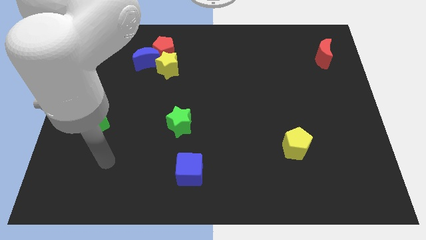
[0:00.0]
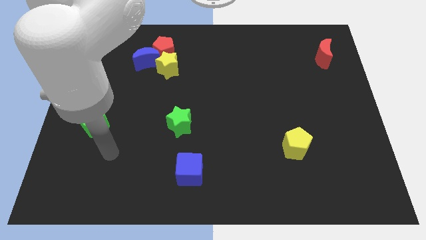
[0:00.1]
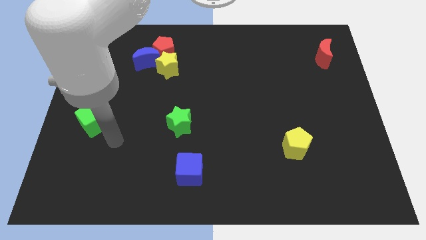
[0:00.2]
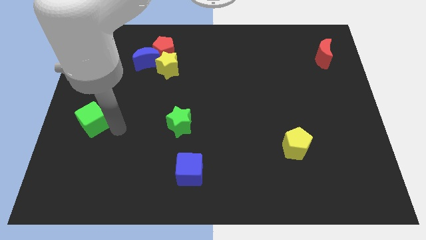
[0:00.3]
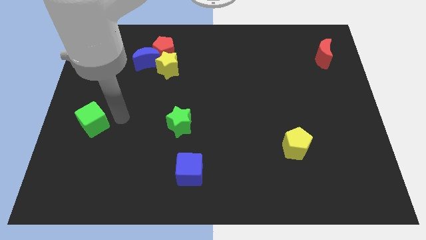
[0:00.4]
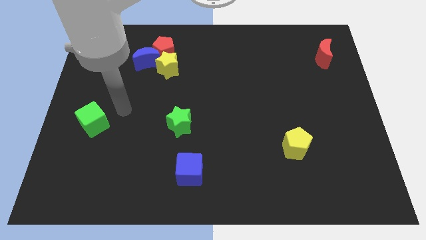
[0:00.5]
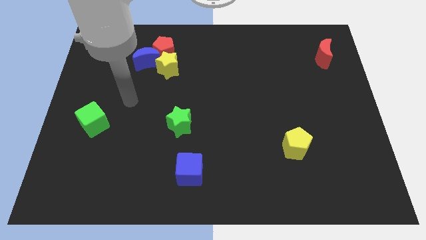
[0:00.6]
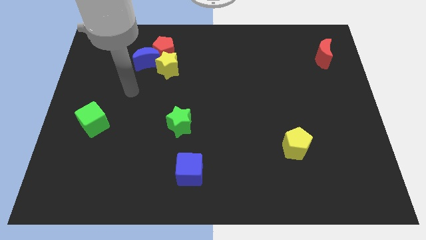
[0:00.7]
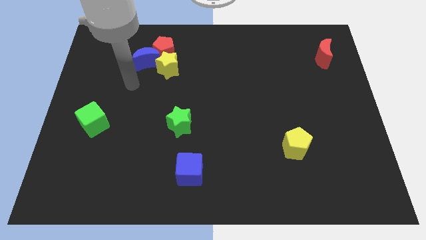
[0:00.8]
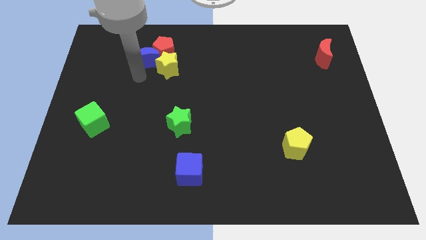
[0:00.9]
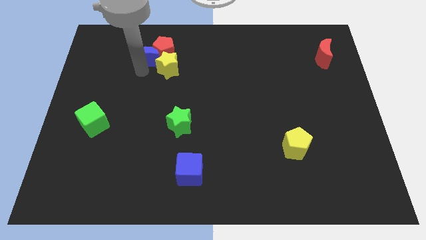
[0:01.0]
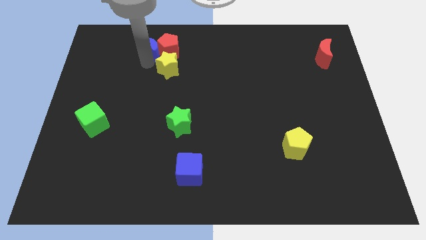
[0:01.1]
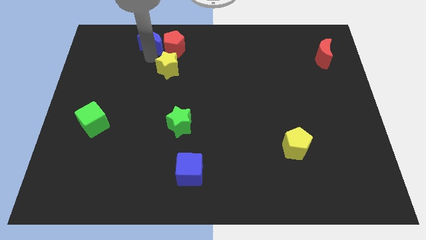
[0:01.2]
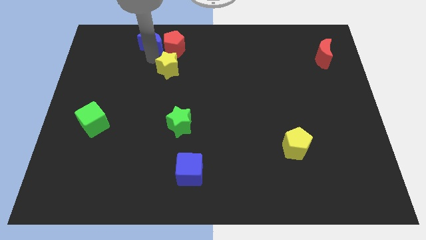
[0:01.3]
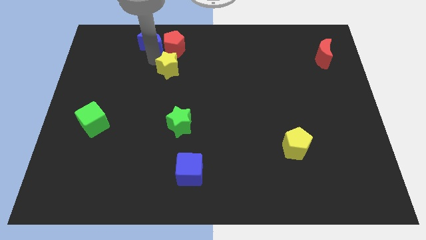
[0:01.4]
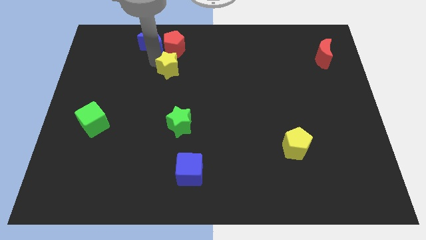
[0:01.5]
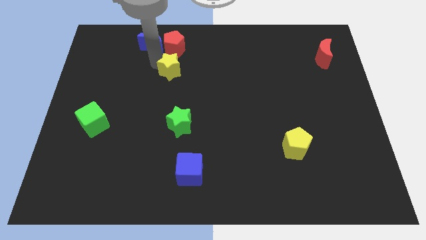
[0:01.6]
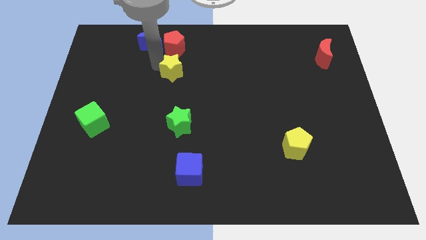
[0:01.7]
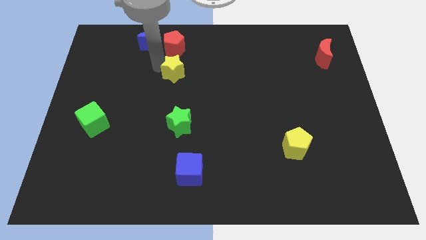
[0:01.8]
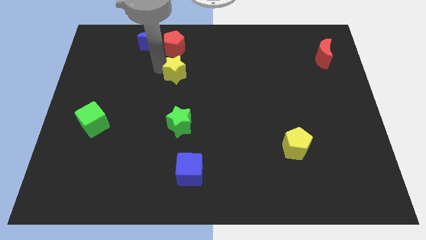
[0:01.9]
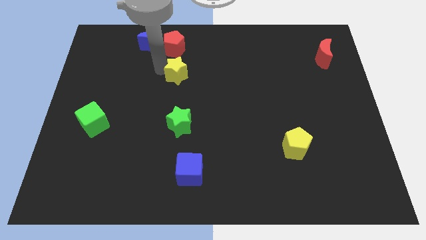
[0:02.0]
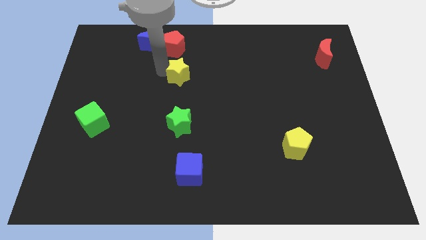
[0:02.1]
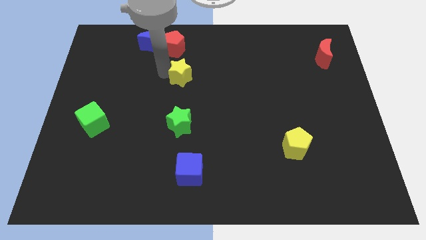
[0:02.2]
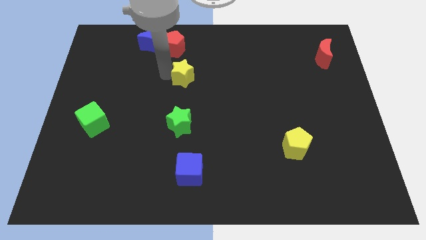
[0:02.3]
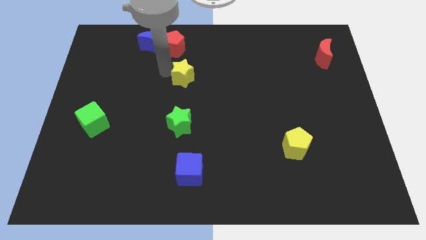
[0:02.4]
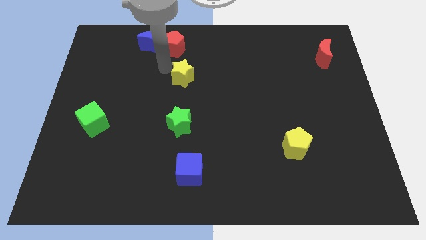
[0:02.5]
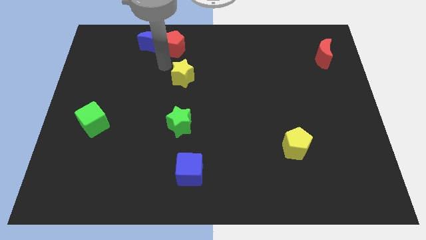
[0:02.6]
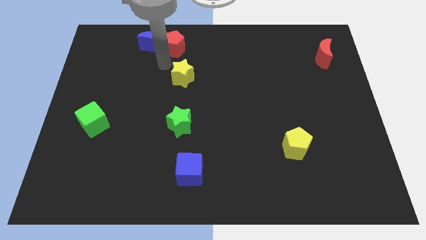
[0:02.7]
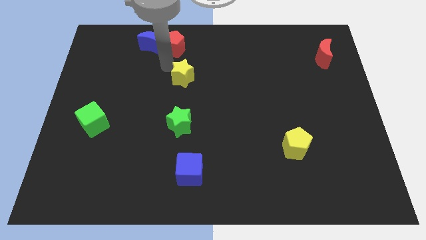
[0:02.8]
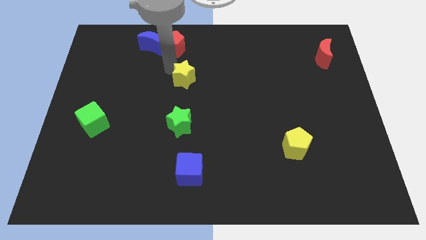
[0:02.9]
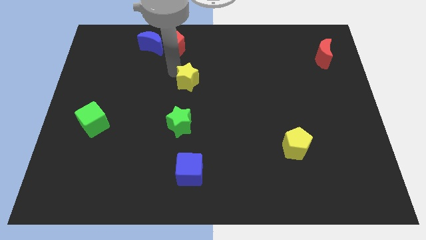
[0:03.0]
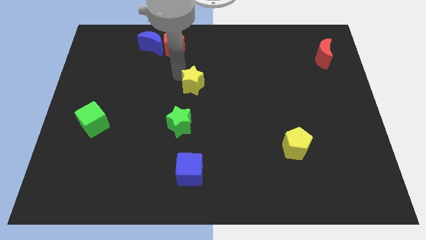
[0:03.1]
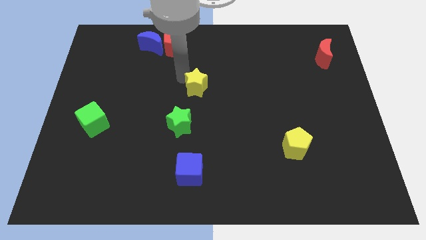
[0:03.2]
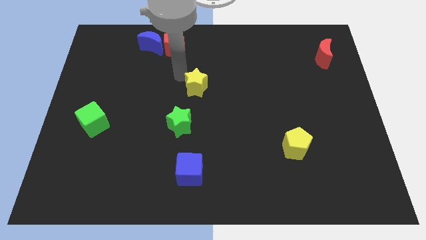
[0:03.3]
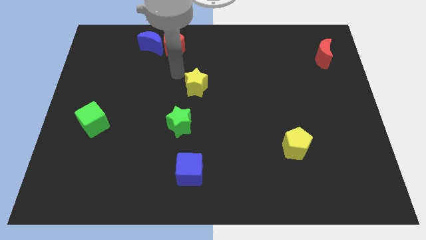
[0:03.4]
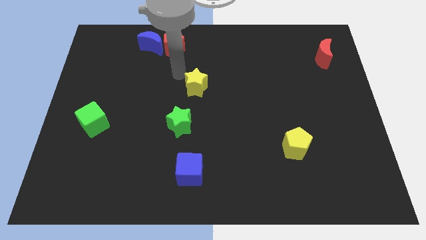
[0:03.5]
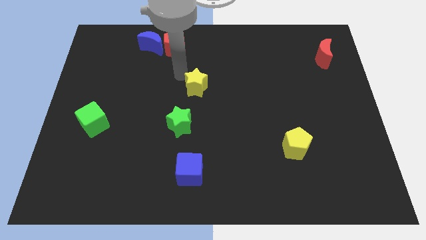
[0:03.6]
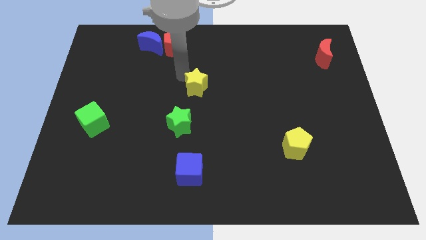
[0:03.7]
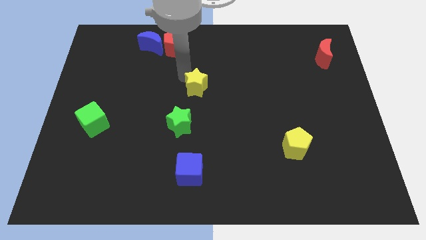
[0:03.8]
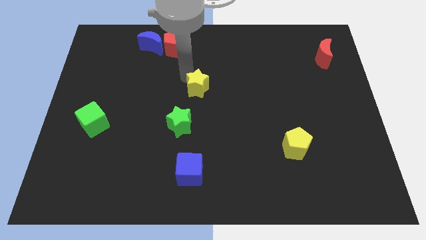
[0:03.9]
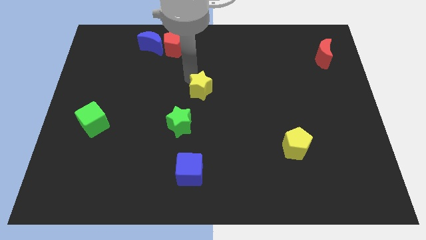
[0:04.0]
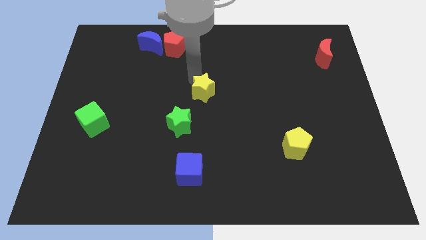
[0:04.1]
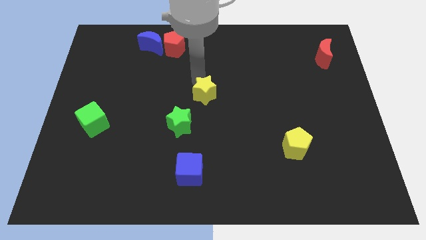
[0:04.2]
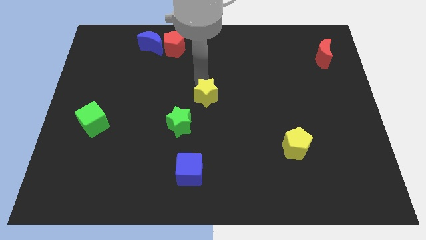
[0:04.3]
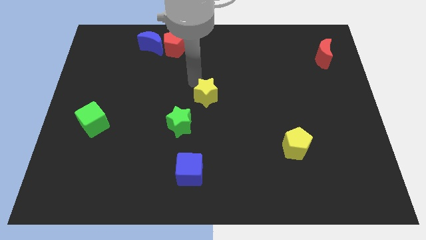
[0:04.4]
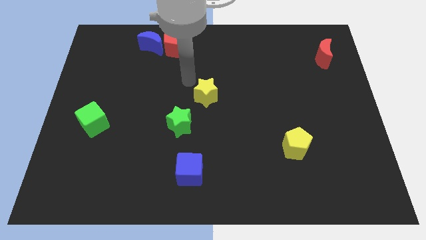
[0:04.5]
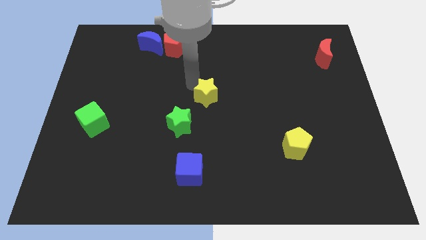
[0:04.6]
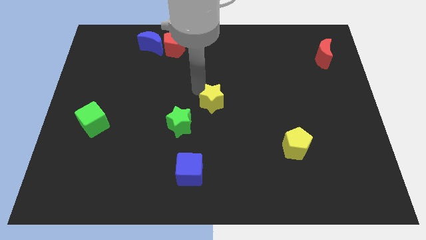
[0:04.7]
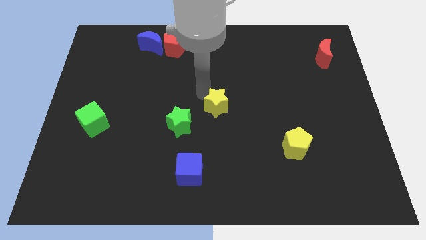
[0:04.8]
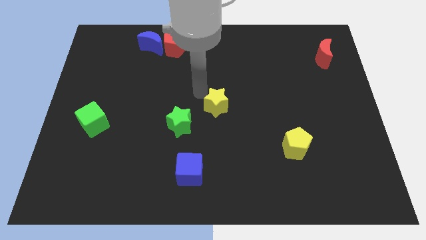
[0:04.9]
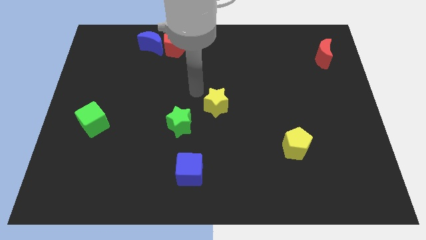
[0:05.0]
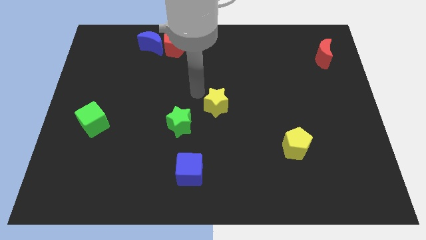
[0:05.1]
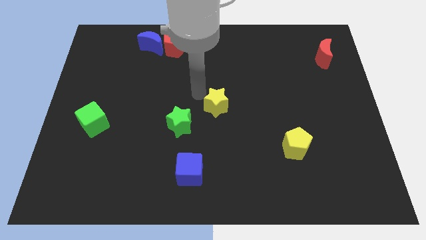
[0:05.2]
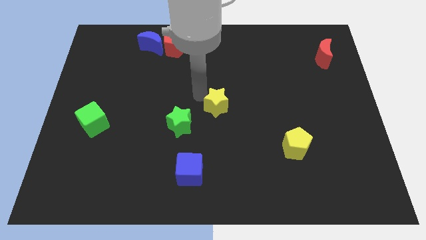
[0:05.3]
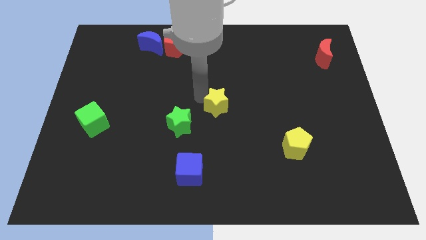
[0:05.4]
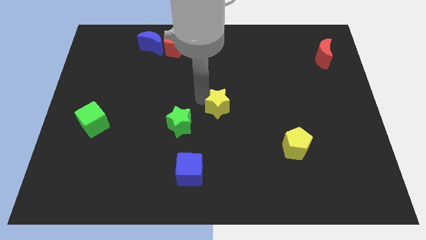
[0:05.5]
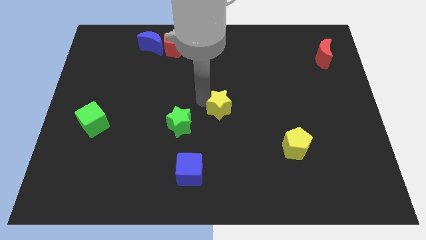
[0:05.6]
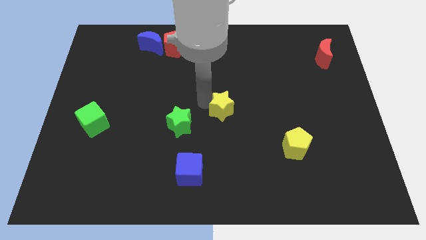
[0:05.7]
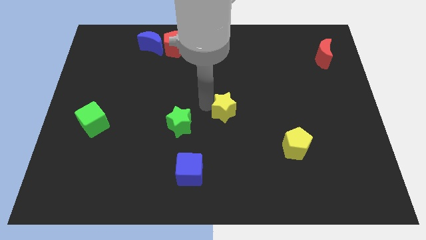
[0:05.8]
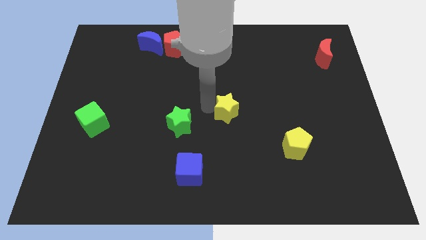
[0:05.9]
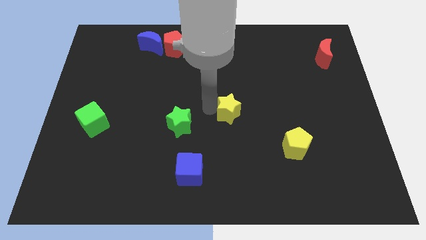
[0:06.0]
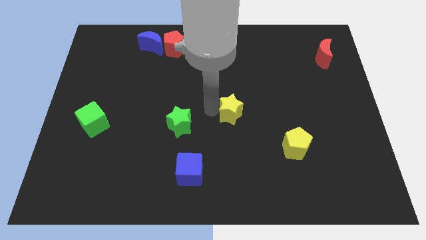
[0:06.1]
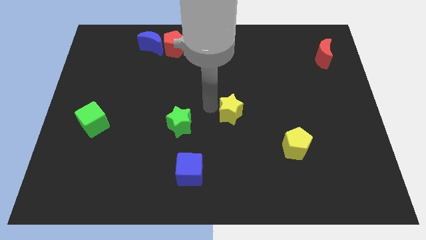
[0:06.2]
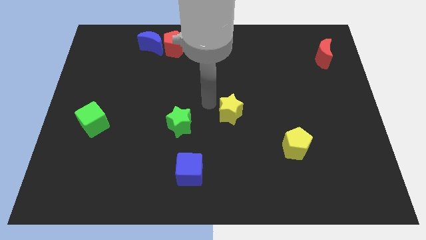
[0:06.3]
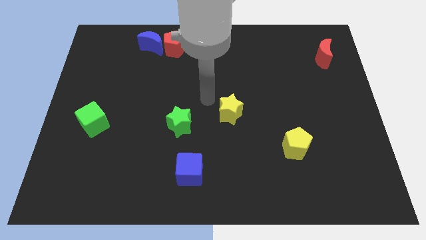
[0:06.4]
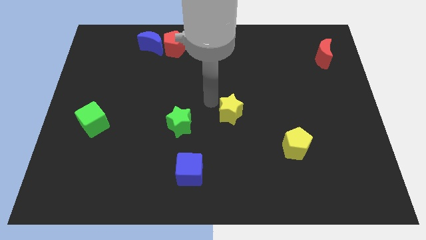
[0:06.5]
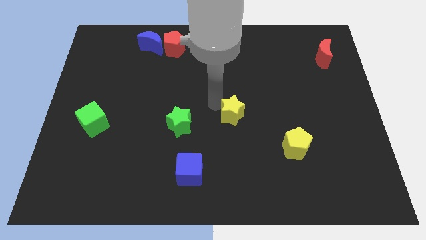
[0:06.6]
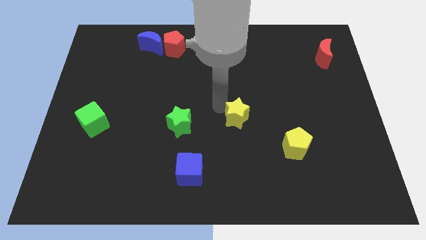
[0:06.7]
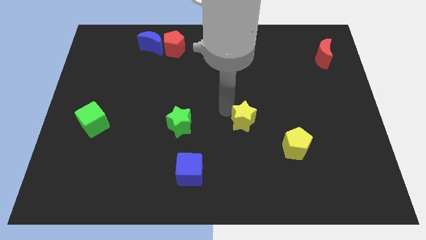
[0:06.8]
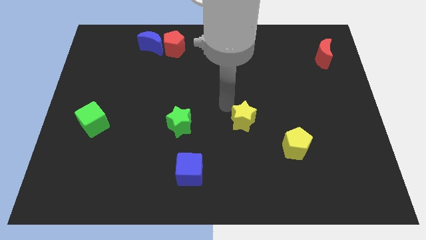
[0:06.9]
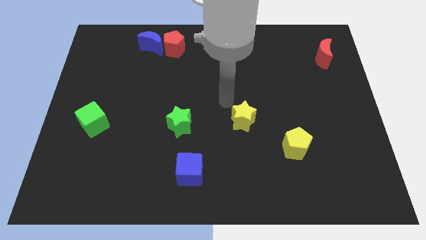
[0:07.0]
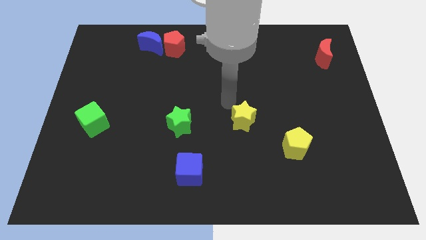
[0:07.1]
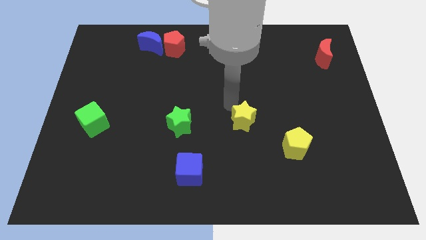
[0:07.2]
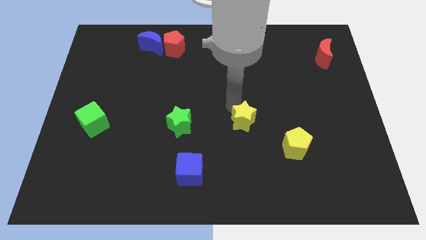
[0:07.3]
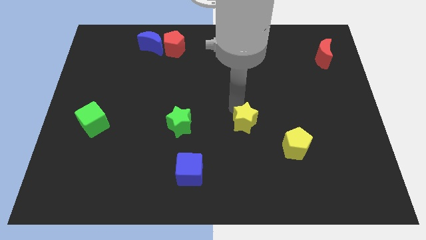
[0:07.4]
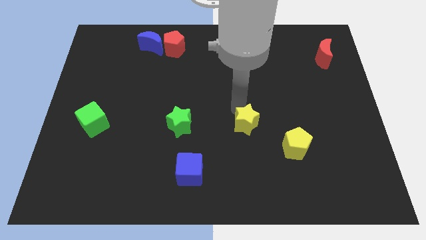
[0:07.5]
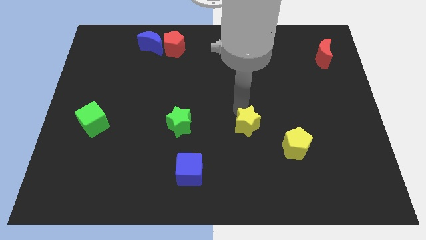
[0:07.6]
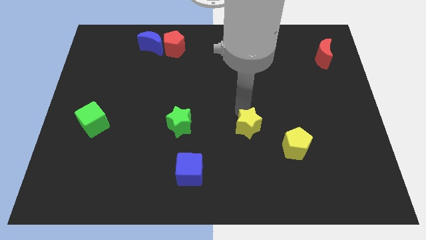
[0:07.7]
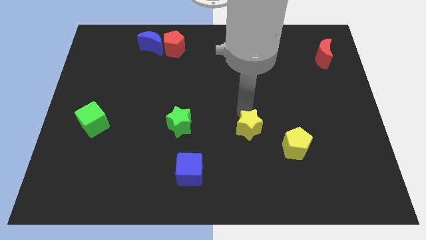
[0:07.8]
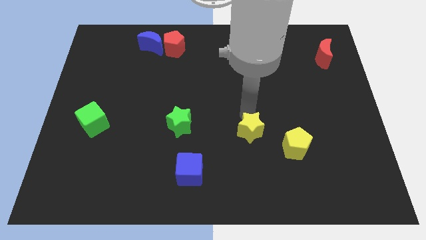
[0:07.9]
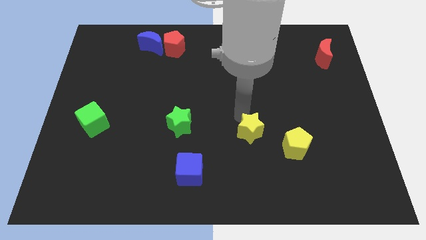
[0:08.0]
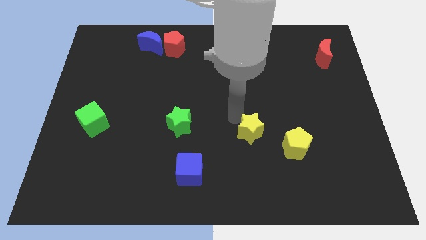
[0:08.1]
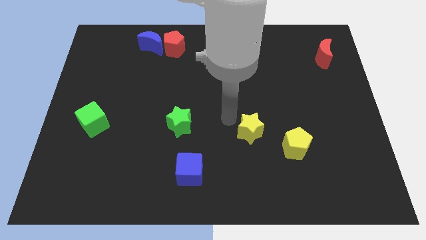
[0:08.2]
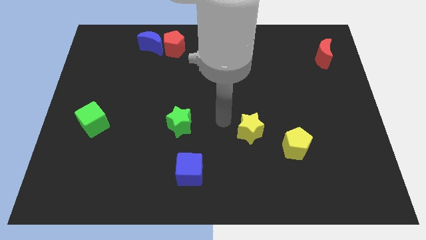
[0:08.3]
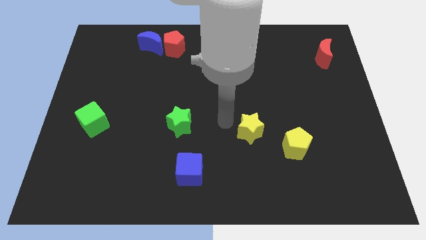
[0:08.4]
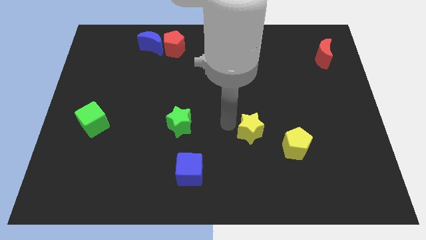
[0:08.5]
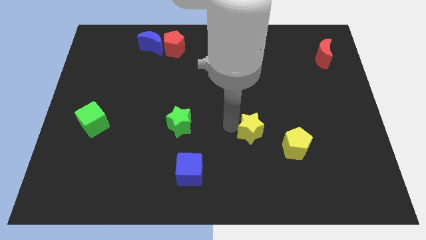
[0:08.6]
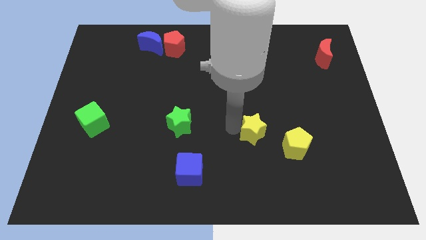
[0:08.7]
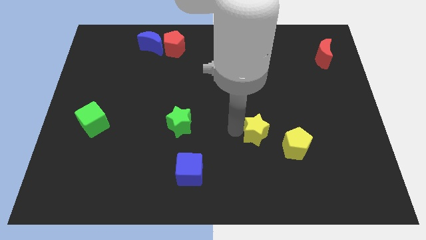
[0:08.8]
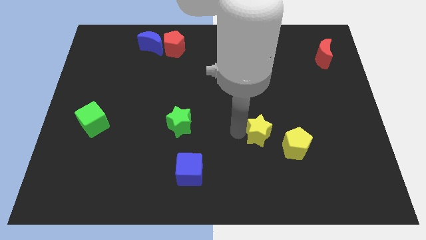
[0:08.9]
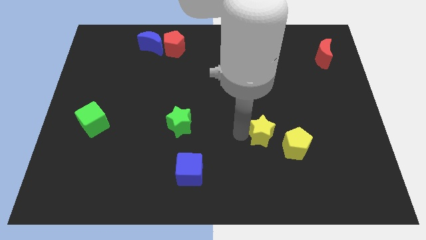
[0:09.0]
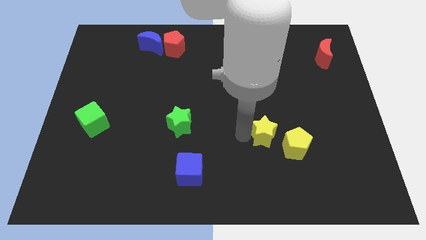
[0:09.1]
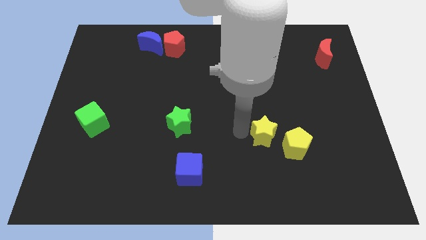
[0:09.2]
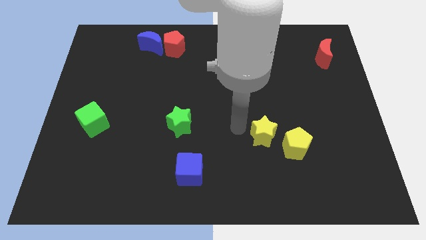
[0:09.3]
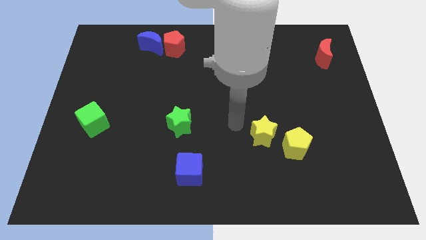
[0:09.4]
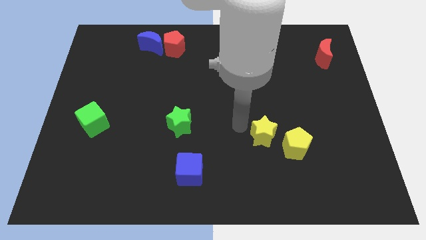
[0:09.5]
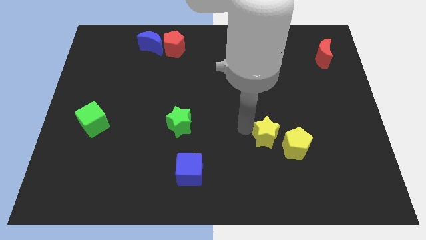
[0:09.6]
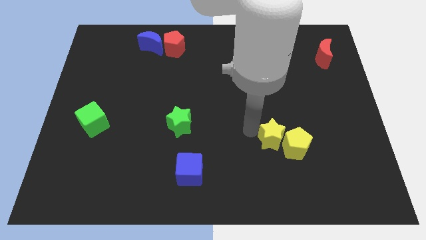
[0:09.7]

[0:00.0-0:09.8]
move the yellow star next to the yellow pentagon
